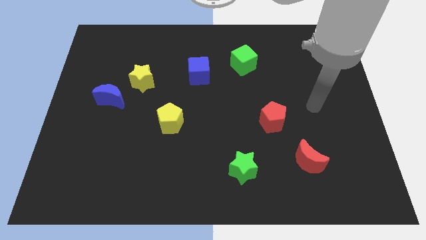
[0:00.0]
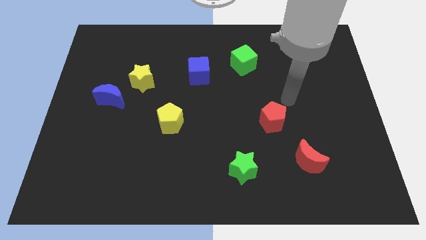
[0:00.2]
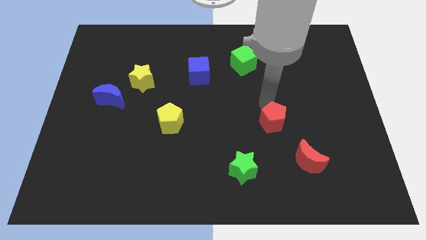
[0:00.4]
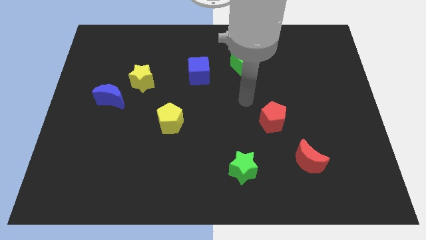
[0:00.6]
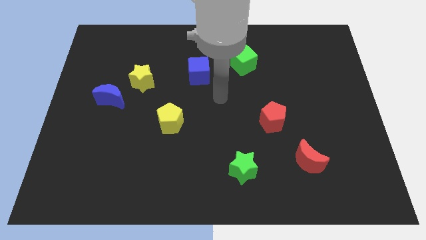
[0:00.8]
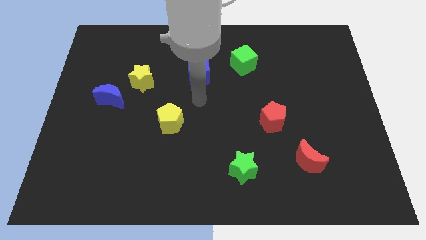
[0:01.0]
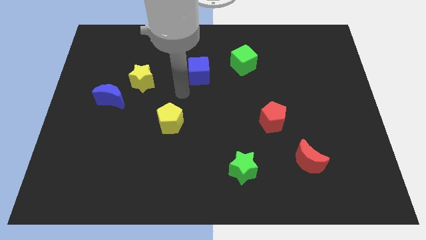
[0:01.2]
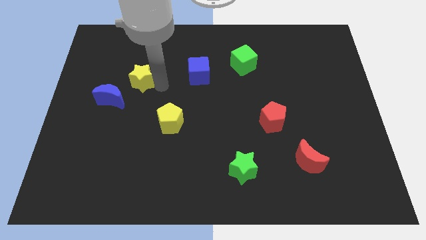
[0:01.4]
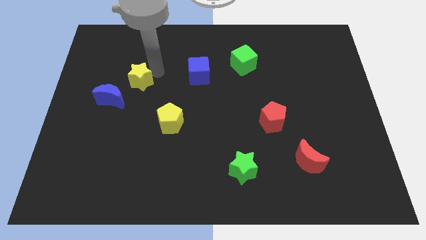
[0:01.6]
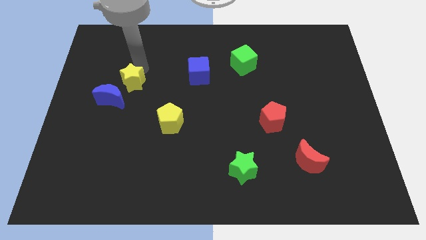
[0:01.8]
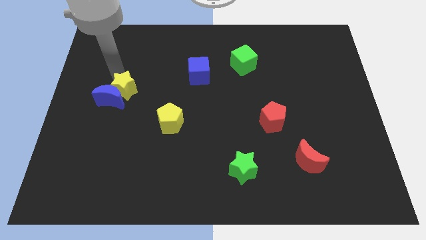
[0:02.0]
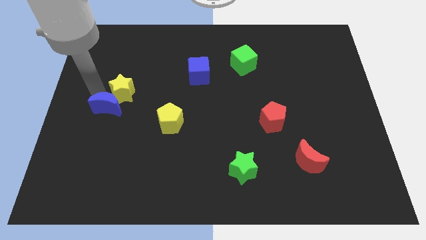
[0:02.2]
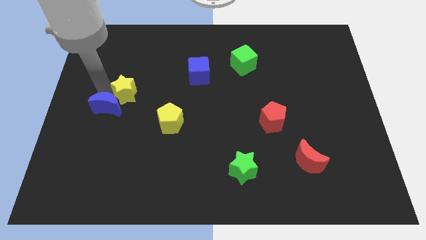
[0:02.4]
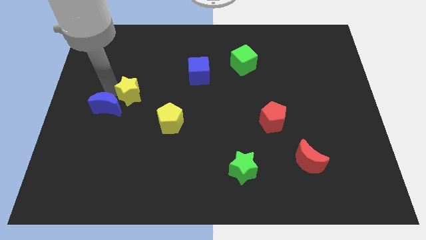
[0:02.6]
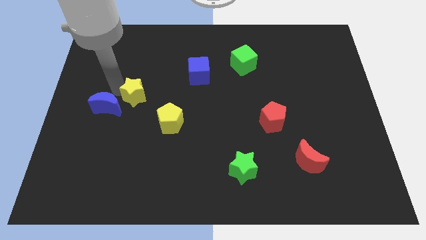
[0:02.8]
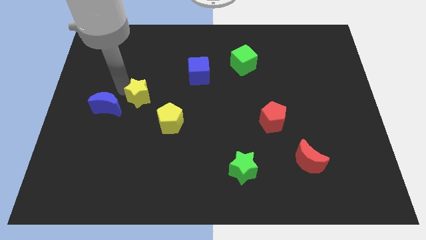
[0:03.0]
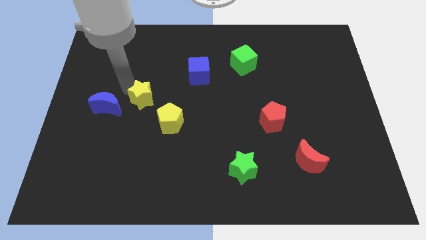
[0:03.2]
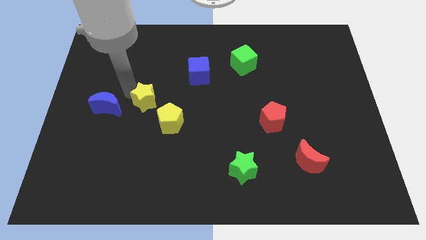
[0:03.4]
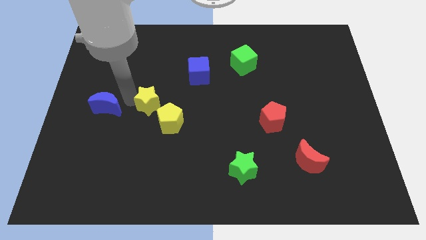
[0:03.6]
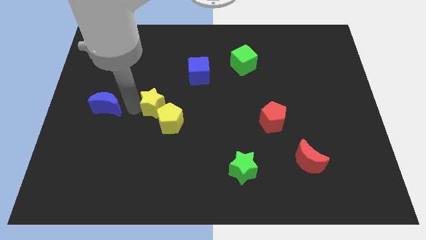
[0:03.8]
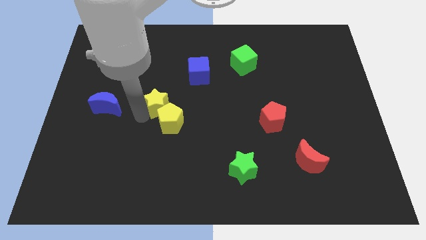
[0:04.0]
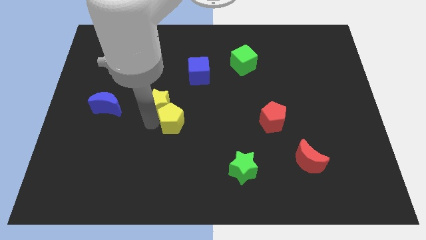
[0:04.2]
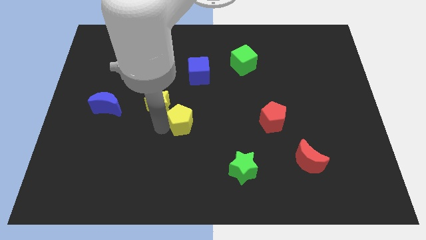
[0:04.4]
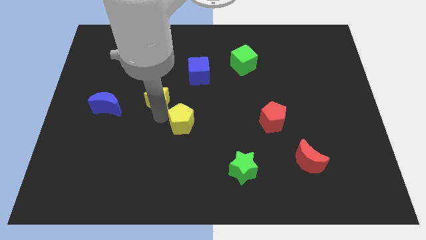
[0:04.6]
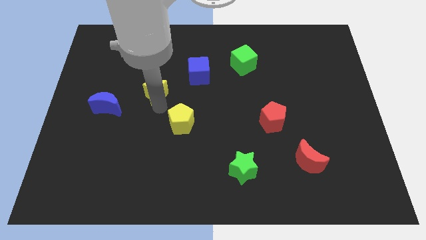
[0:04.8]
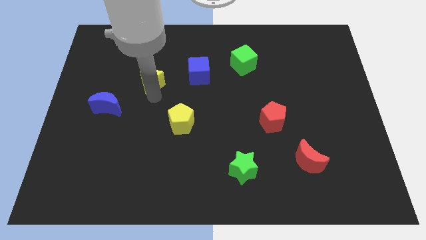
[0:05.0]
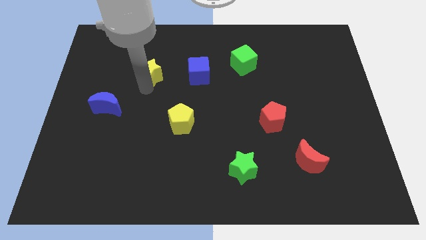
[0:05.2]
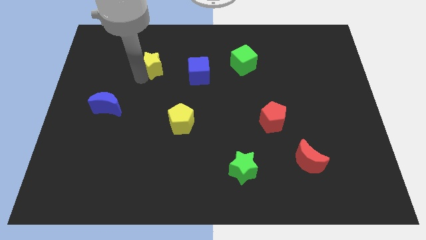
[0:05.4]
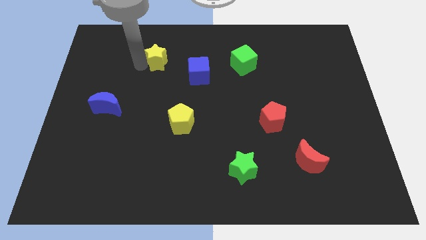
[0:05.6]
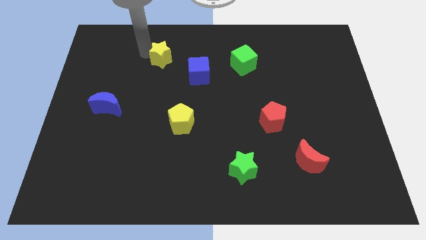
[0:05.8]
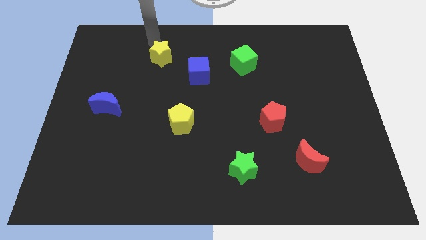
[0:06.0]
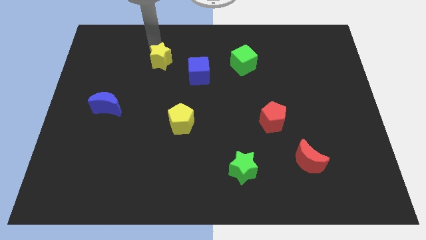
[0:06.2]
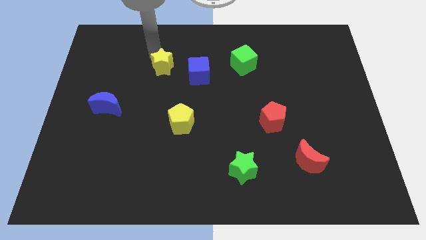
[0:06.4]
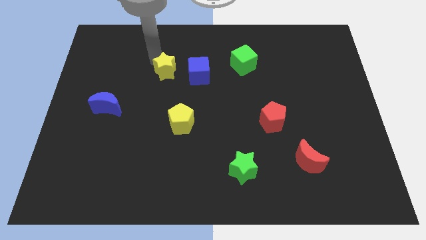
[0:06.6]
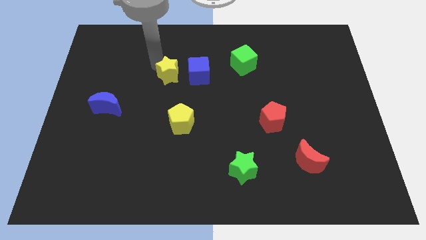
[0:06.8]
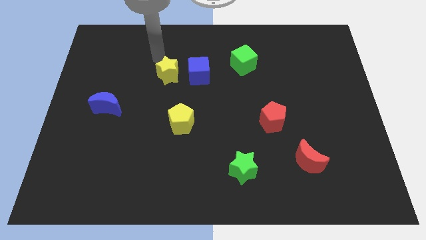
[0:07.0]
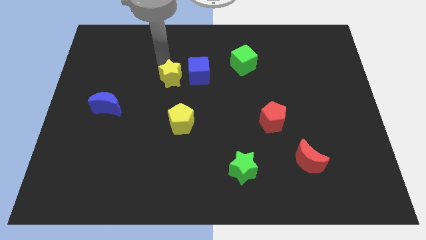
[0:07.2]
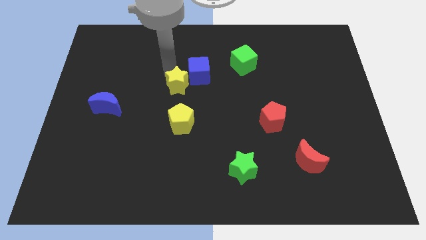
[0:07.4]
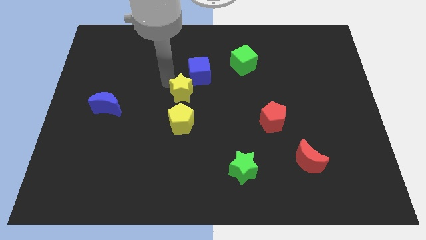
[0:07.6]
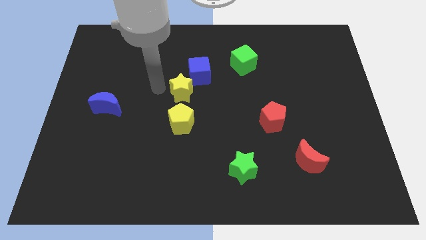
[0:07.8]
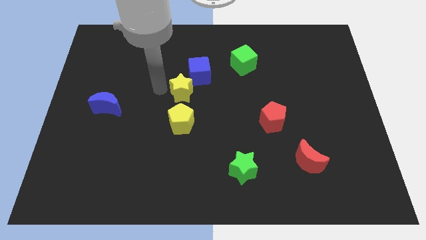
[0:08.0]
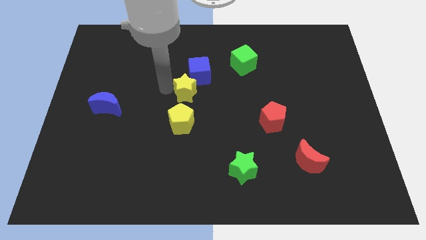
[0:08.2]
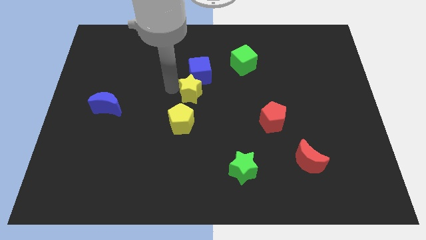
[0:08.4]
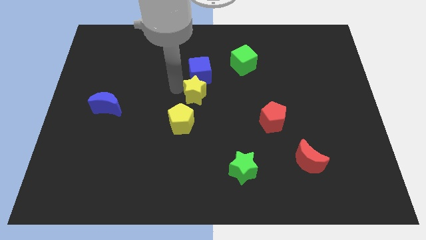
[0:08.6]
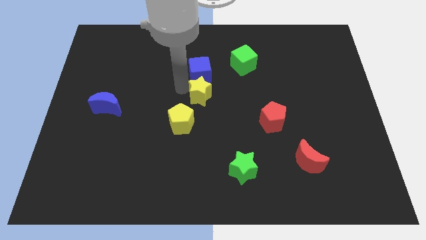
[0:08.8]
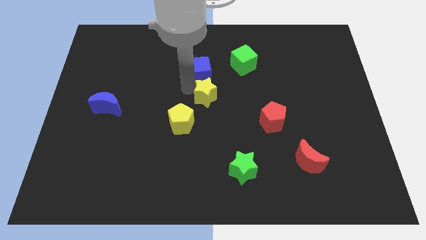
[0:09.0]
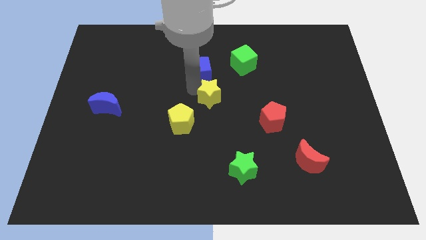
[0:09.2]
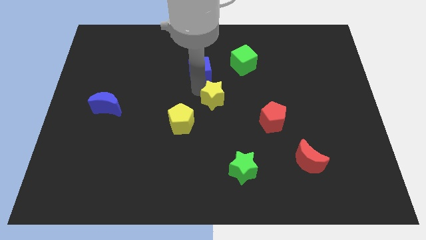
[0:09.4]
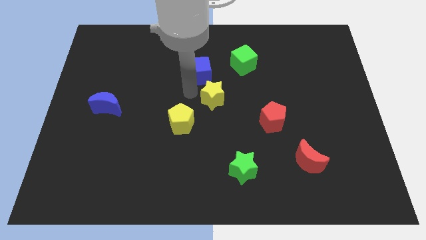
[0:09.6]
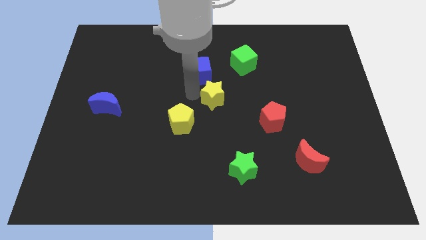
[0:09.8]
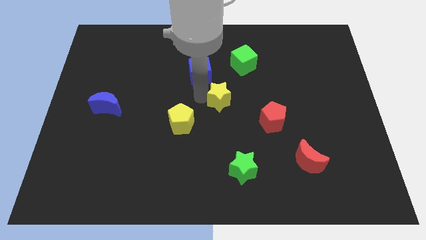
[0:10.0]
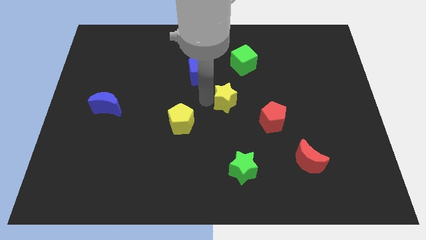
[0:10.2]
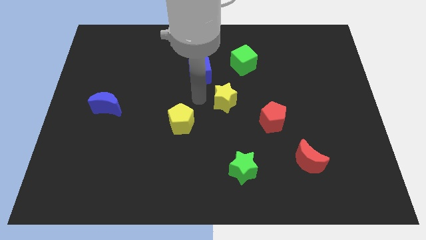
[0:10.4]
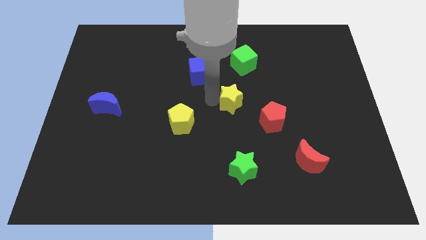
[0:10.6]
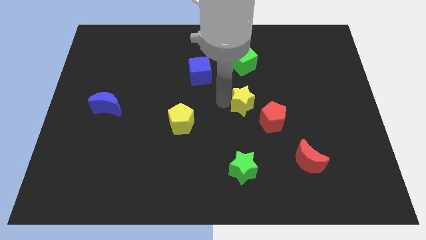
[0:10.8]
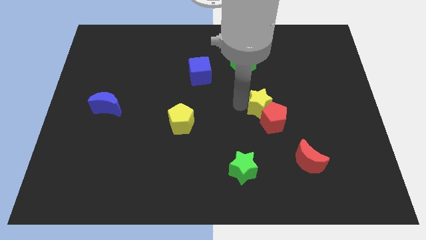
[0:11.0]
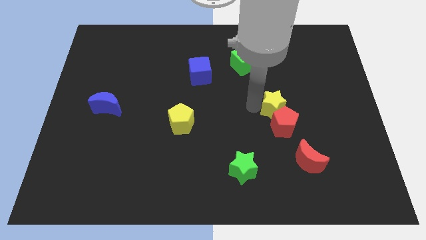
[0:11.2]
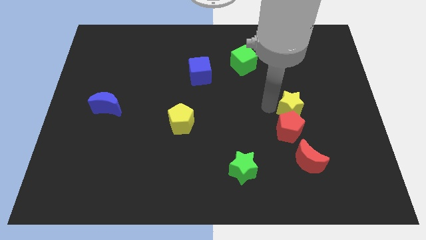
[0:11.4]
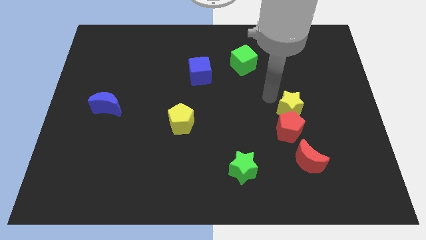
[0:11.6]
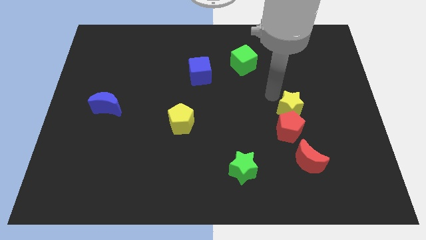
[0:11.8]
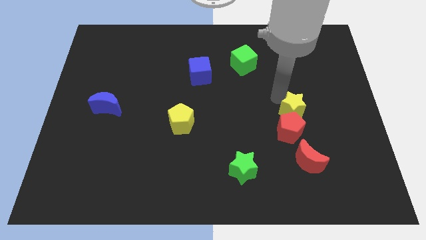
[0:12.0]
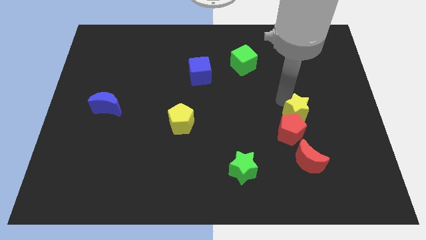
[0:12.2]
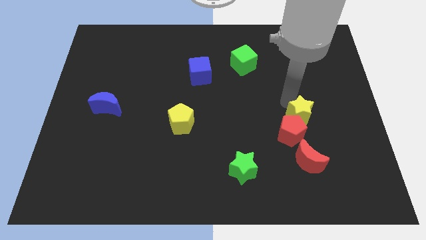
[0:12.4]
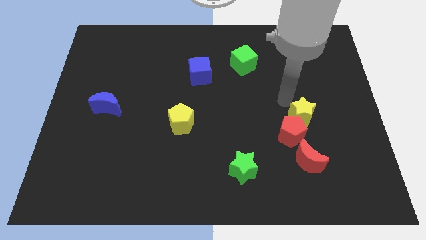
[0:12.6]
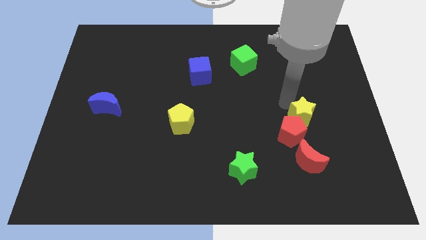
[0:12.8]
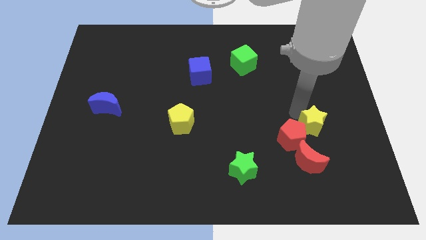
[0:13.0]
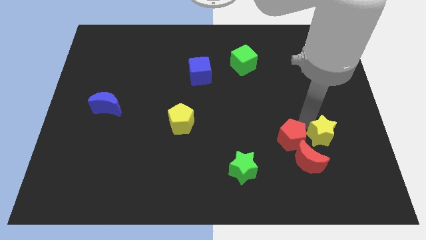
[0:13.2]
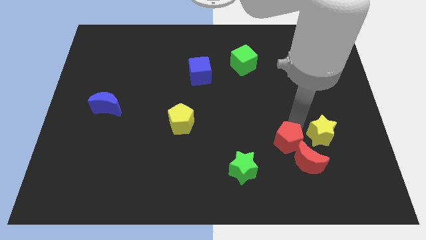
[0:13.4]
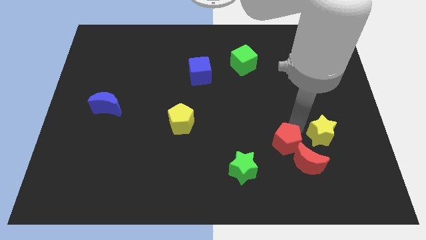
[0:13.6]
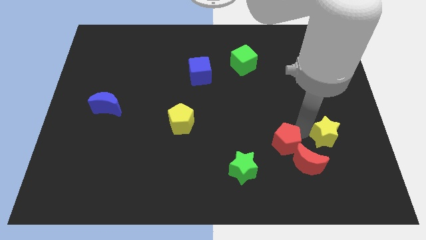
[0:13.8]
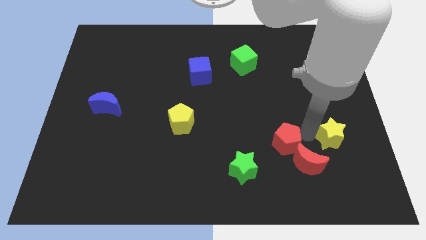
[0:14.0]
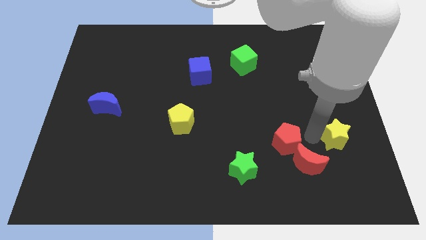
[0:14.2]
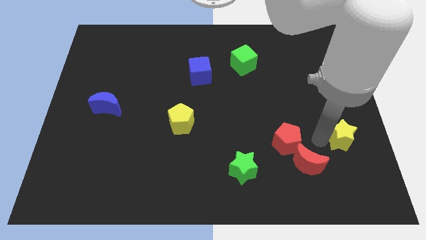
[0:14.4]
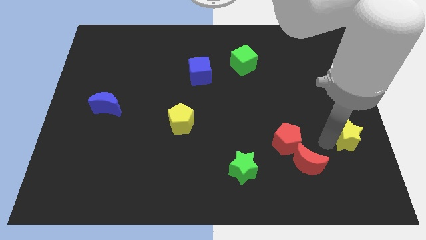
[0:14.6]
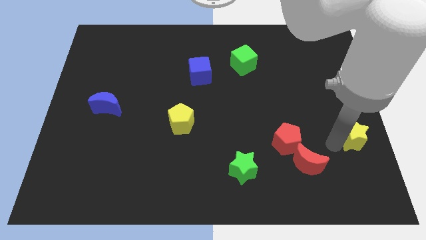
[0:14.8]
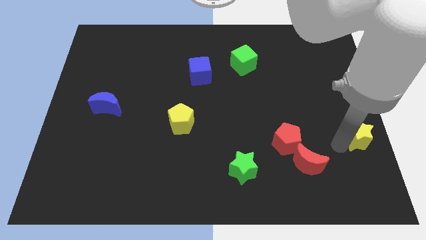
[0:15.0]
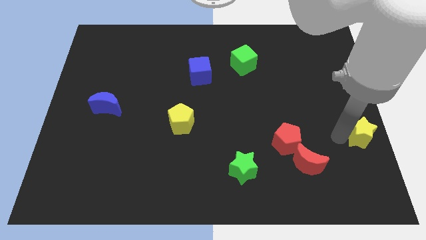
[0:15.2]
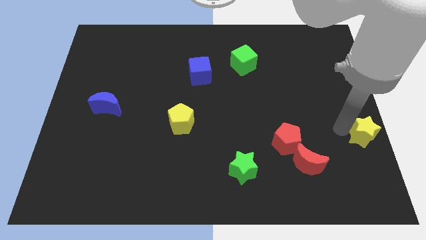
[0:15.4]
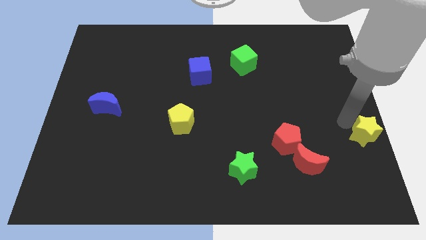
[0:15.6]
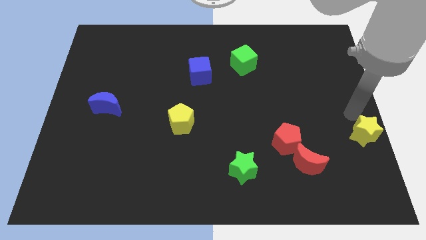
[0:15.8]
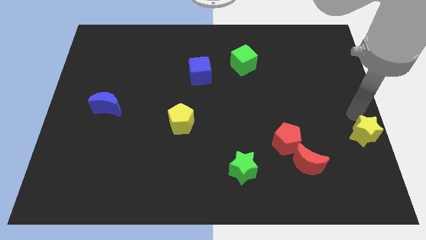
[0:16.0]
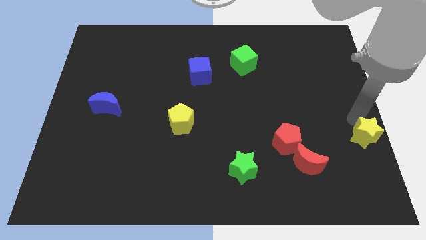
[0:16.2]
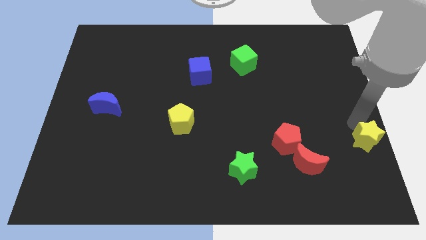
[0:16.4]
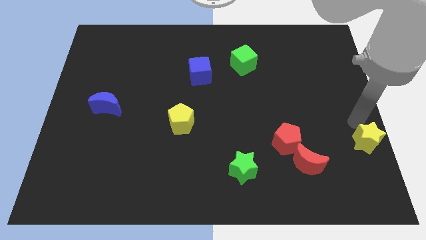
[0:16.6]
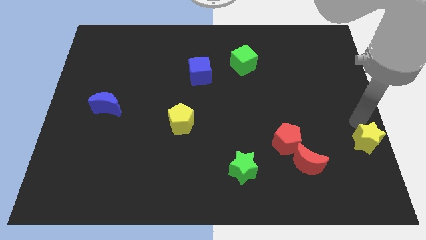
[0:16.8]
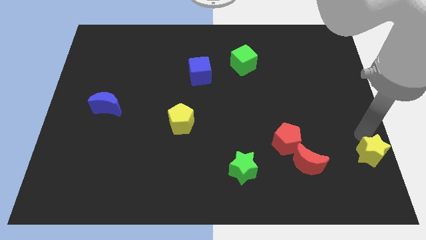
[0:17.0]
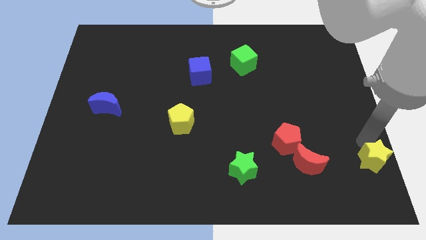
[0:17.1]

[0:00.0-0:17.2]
move the yellow star to the bottom right of the board
